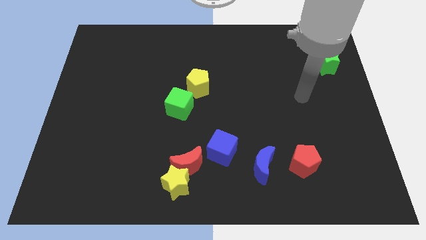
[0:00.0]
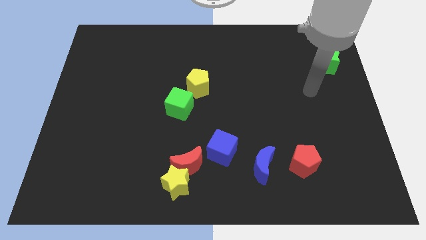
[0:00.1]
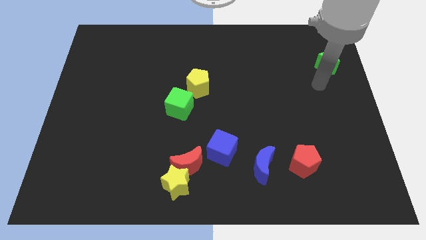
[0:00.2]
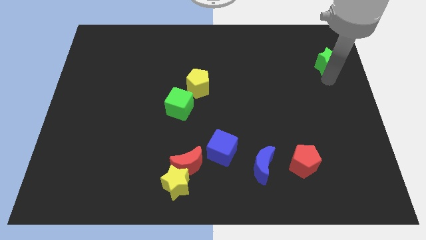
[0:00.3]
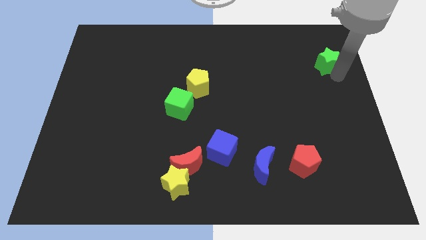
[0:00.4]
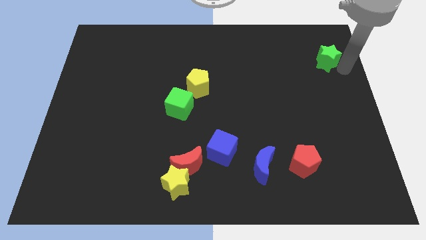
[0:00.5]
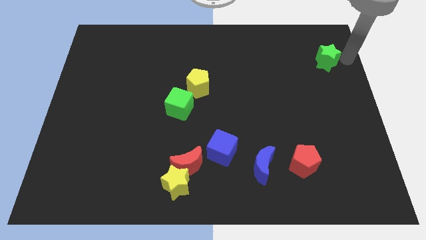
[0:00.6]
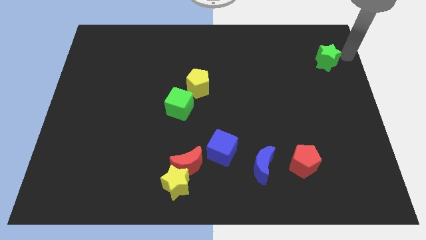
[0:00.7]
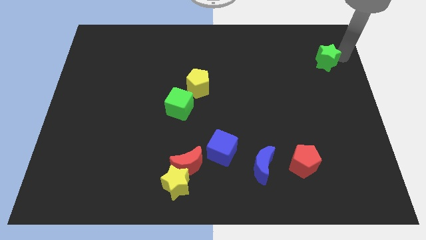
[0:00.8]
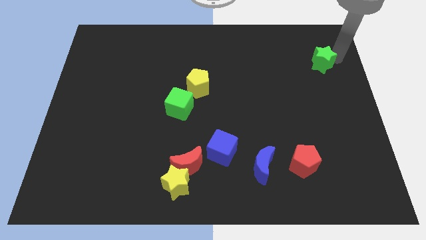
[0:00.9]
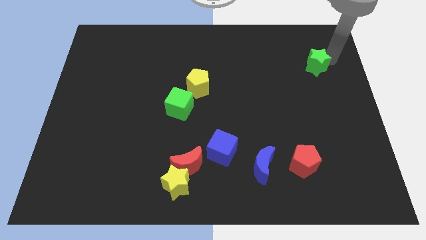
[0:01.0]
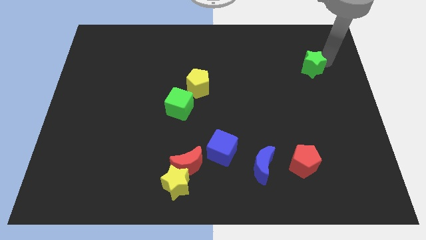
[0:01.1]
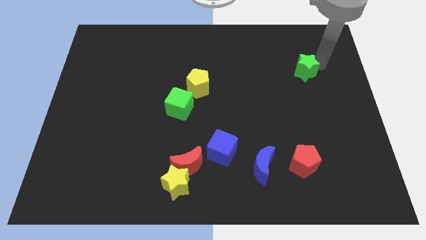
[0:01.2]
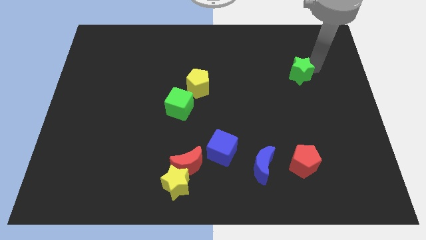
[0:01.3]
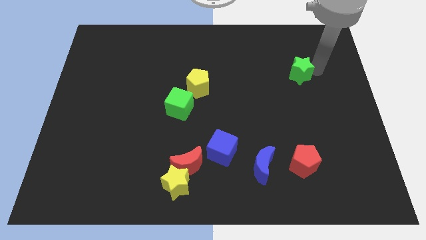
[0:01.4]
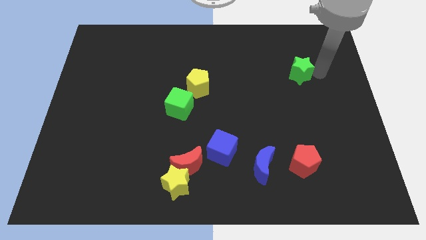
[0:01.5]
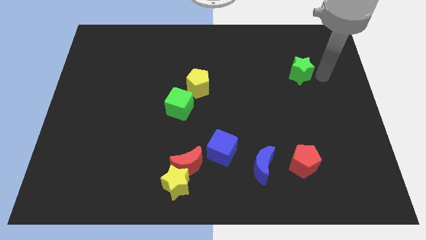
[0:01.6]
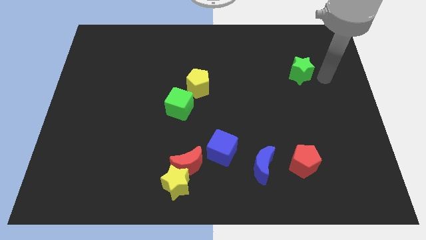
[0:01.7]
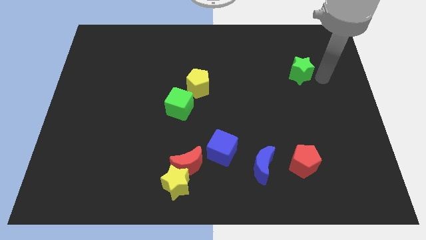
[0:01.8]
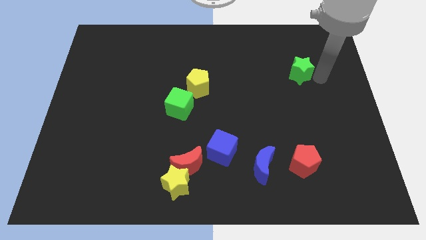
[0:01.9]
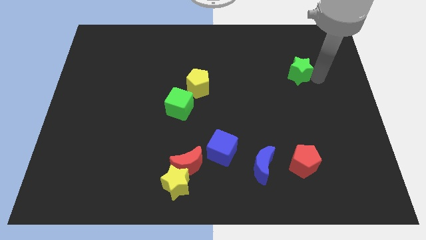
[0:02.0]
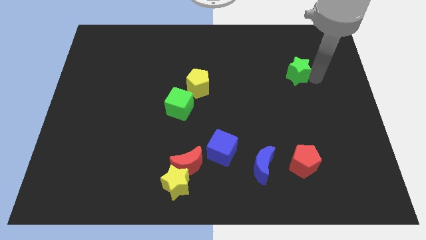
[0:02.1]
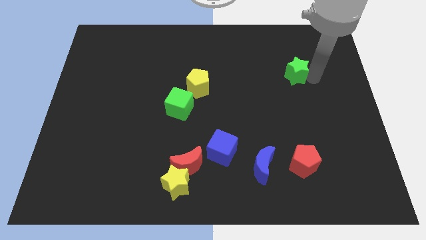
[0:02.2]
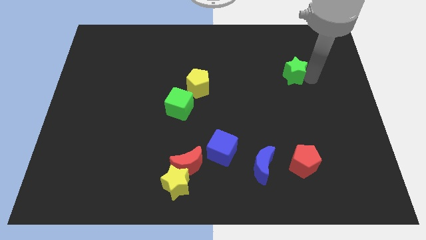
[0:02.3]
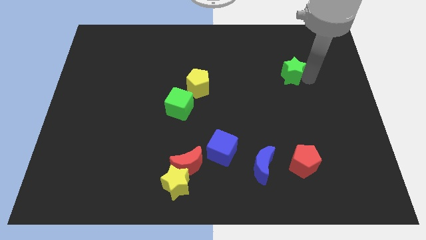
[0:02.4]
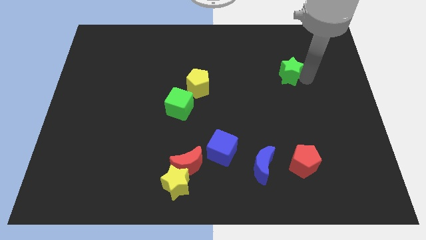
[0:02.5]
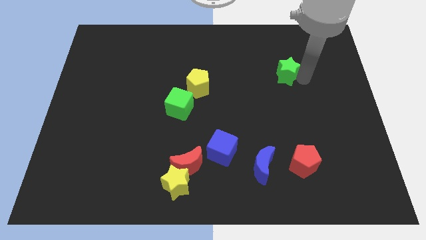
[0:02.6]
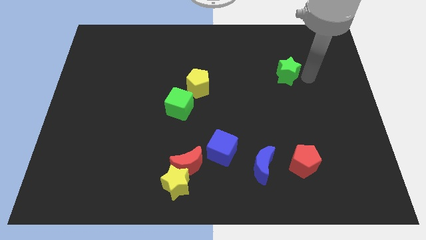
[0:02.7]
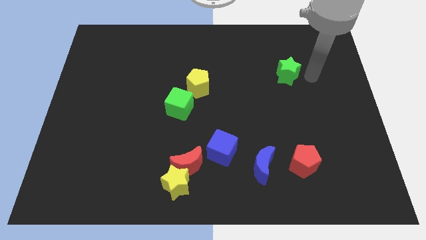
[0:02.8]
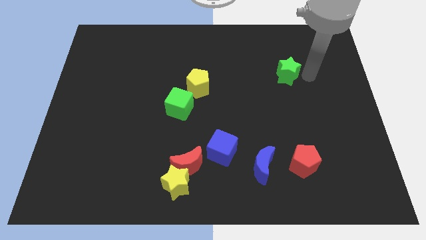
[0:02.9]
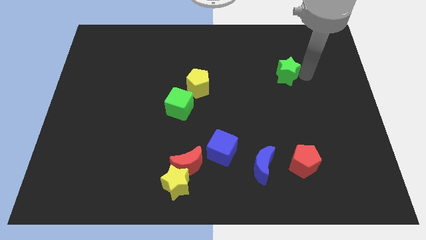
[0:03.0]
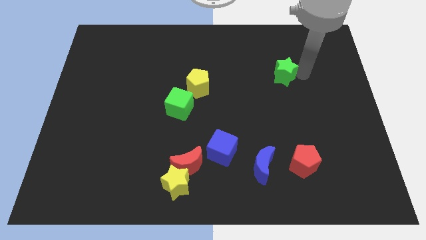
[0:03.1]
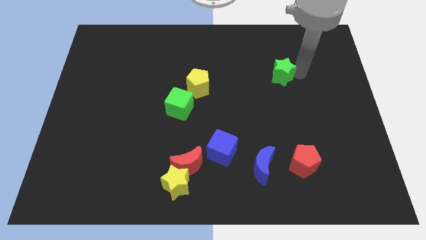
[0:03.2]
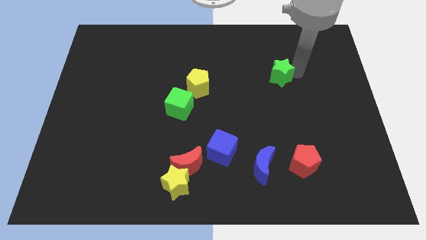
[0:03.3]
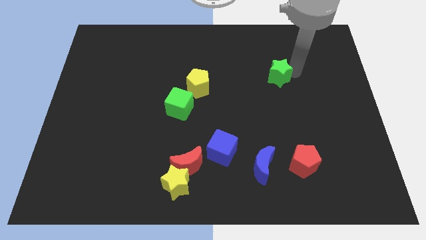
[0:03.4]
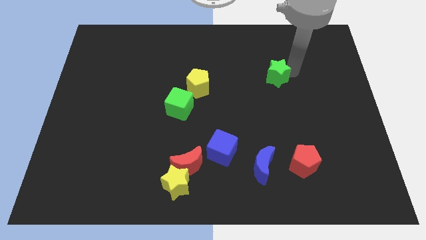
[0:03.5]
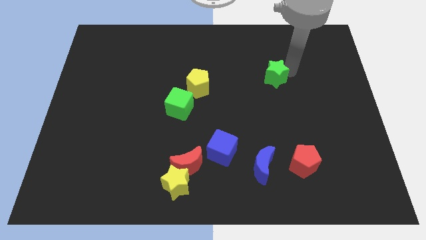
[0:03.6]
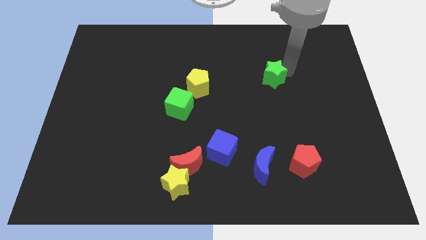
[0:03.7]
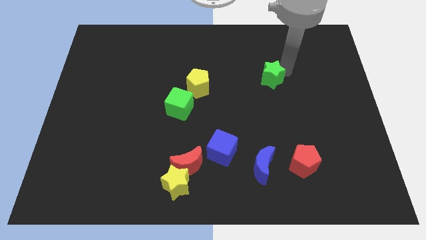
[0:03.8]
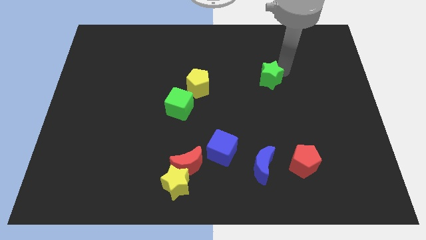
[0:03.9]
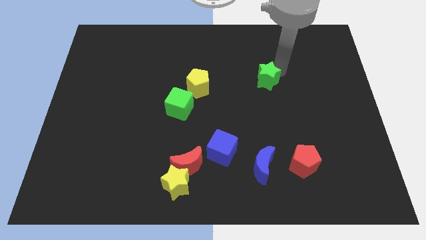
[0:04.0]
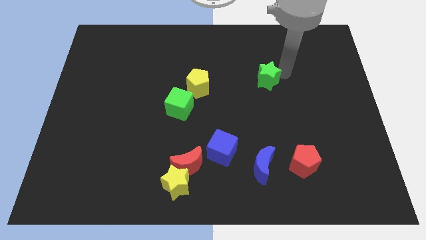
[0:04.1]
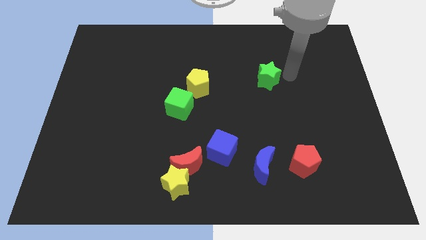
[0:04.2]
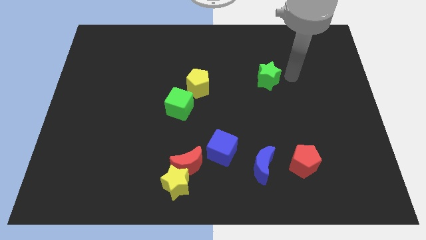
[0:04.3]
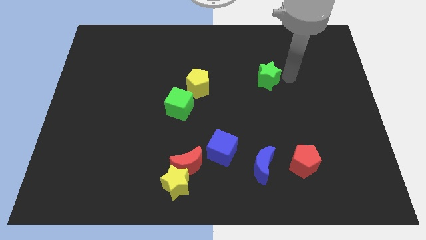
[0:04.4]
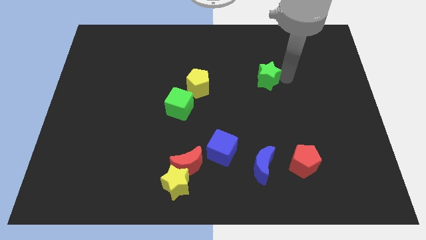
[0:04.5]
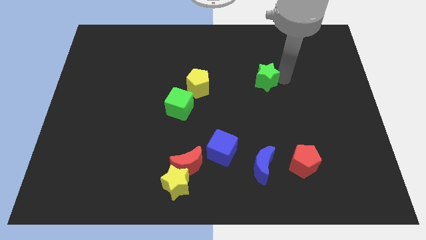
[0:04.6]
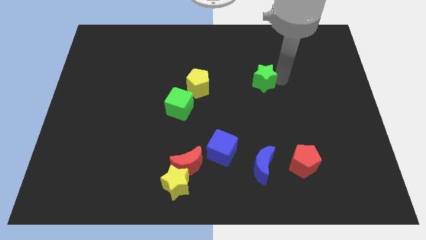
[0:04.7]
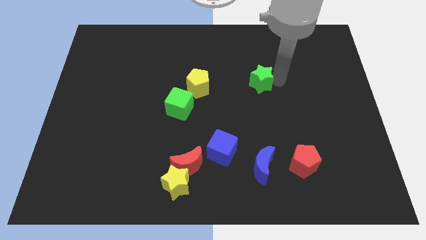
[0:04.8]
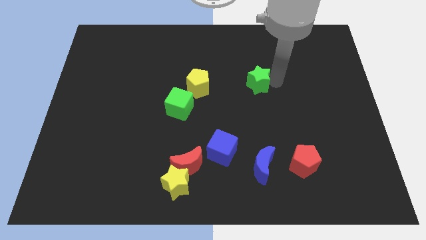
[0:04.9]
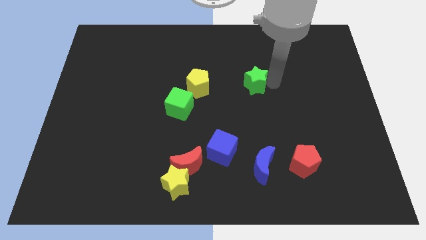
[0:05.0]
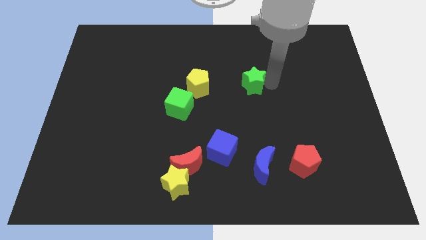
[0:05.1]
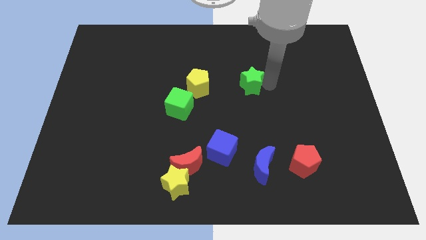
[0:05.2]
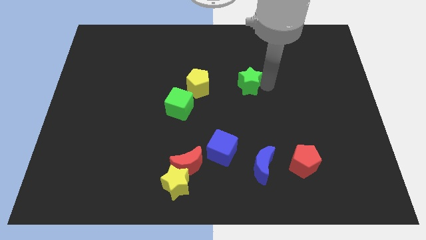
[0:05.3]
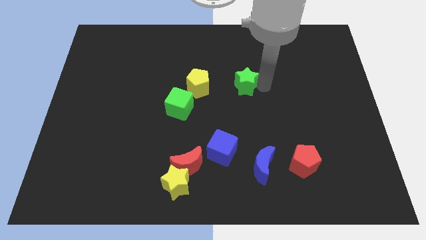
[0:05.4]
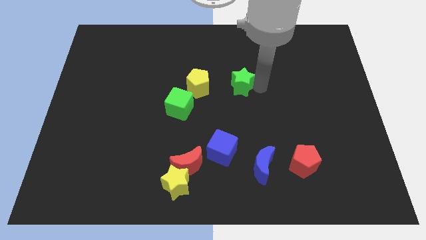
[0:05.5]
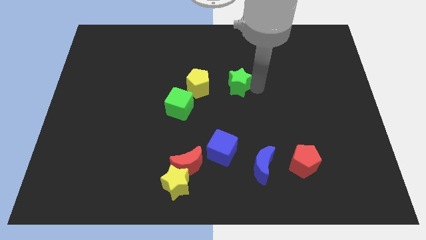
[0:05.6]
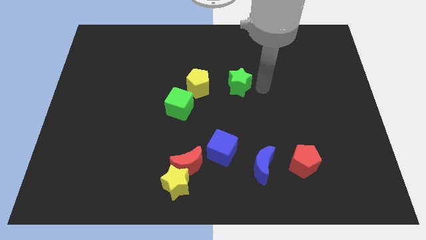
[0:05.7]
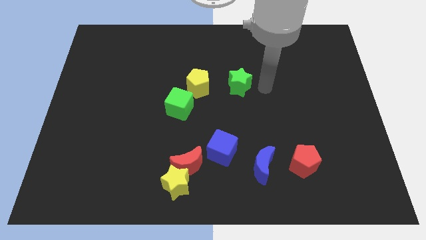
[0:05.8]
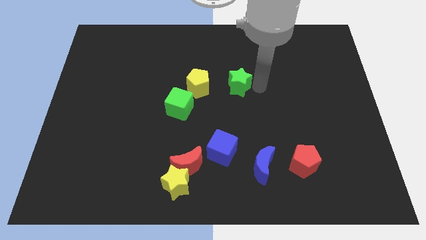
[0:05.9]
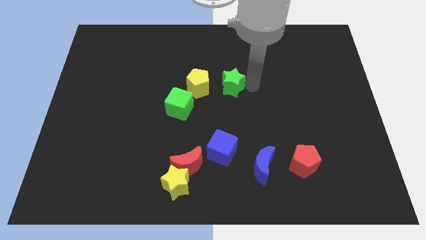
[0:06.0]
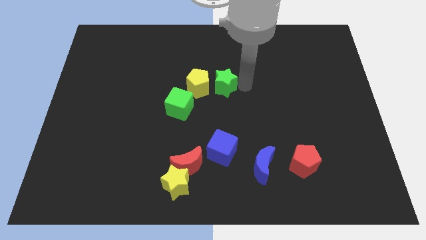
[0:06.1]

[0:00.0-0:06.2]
slide the green star to the yellow pentagon
